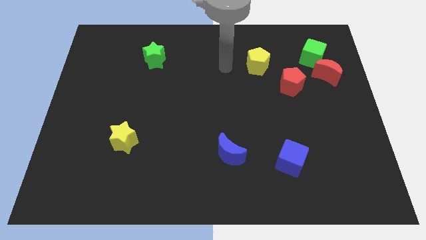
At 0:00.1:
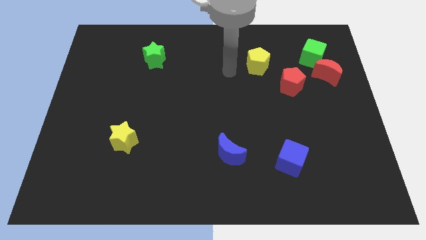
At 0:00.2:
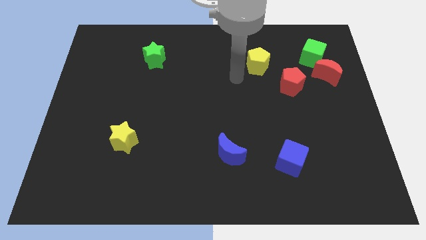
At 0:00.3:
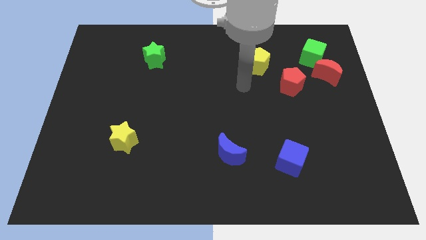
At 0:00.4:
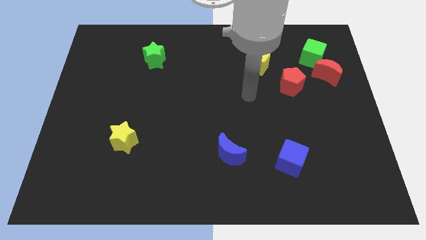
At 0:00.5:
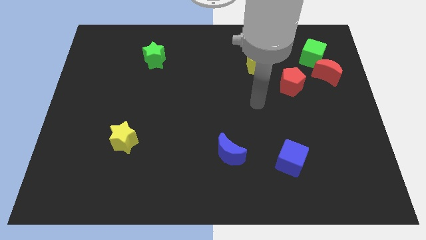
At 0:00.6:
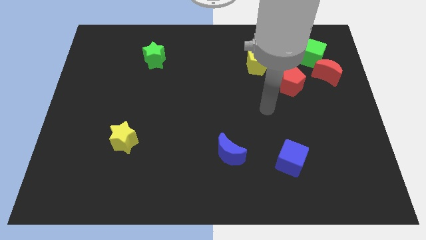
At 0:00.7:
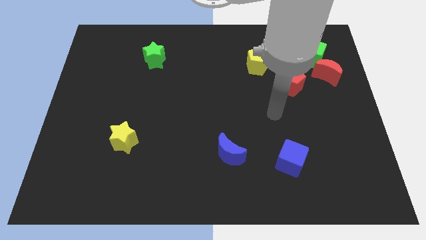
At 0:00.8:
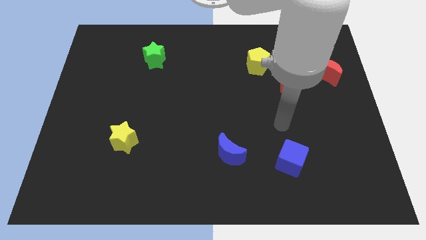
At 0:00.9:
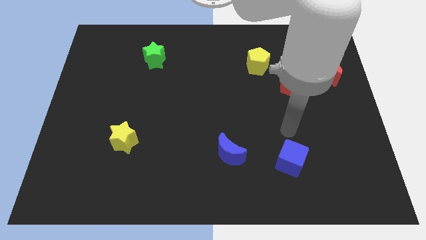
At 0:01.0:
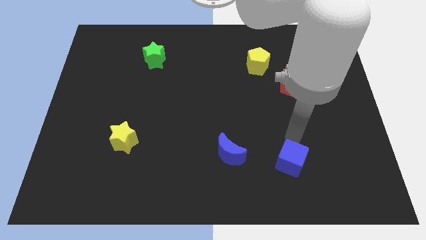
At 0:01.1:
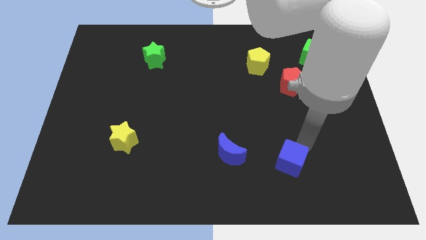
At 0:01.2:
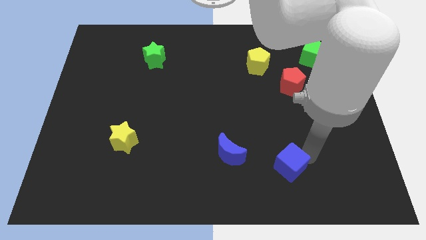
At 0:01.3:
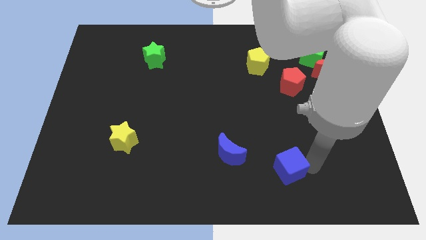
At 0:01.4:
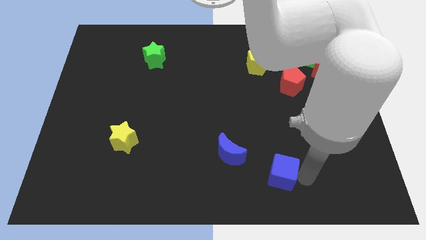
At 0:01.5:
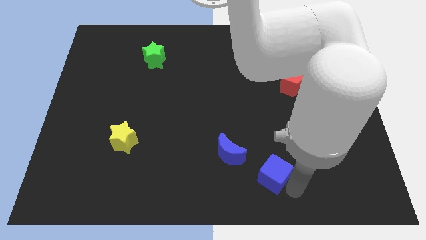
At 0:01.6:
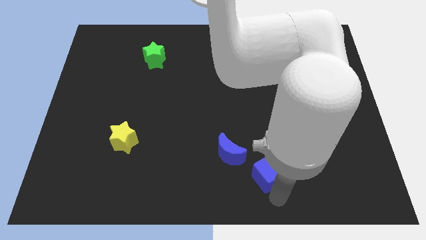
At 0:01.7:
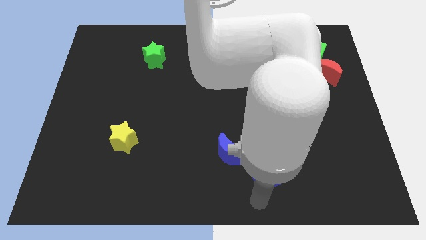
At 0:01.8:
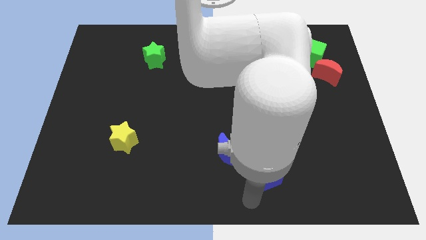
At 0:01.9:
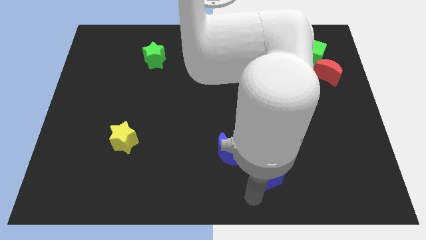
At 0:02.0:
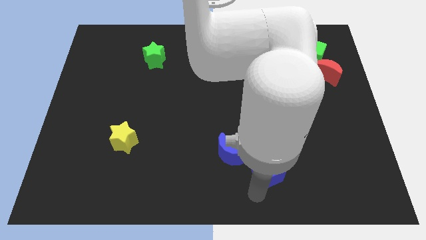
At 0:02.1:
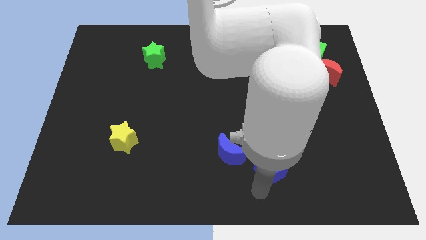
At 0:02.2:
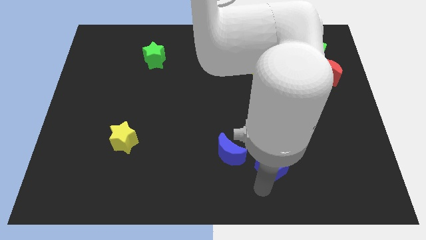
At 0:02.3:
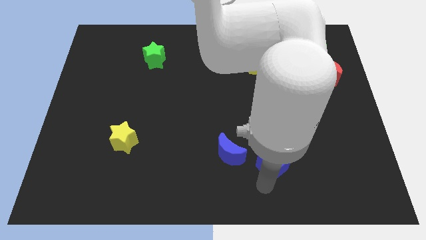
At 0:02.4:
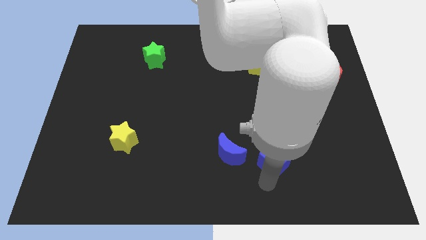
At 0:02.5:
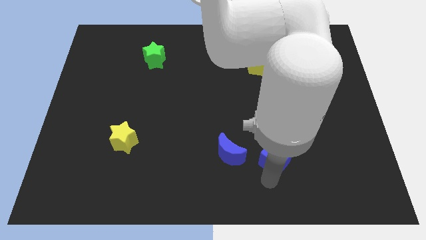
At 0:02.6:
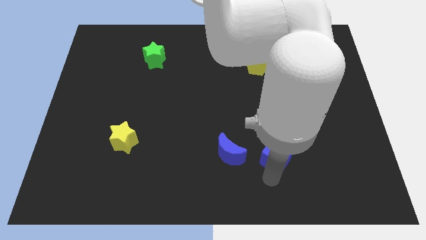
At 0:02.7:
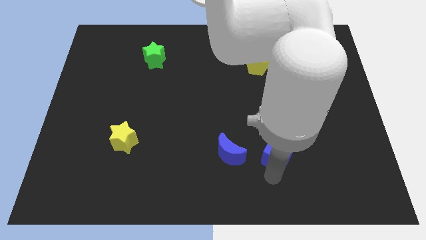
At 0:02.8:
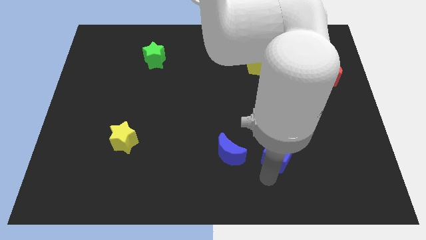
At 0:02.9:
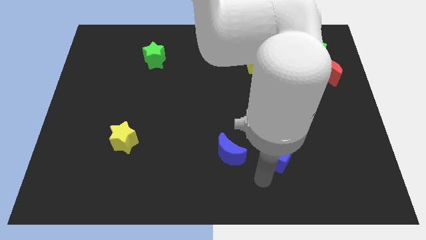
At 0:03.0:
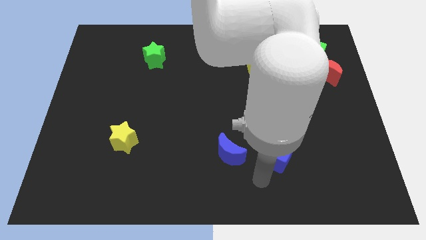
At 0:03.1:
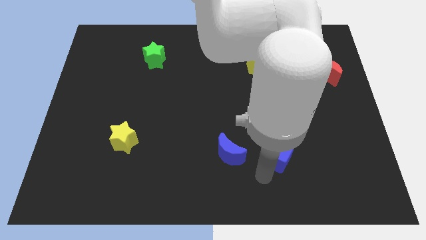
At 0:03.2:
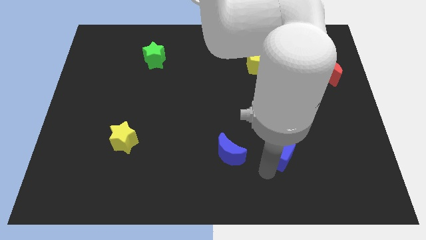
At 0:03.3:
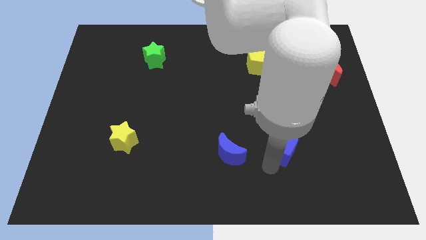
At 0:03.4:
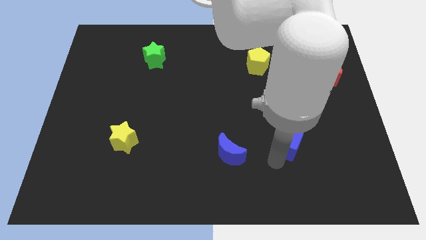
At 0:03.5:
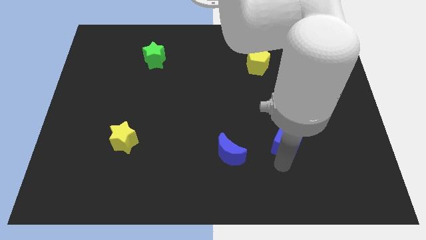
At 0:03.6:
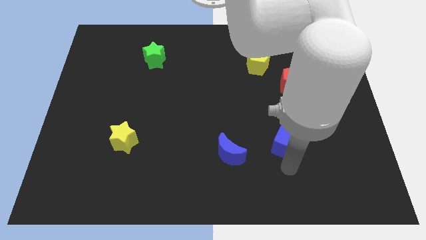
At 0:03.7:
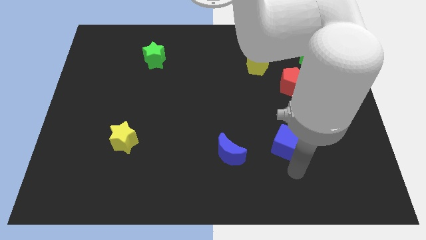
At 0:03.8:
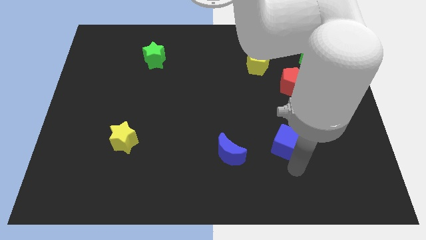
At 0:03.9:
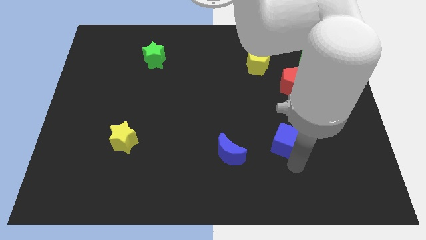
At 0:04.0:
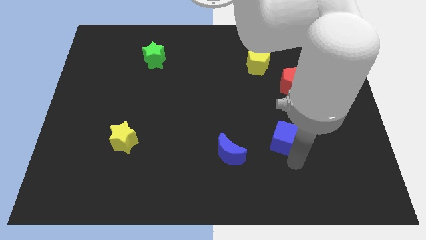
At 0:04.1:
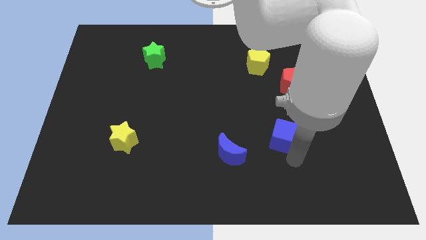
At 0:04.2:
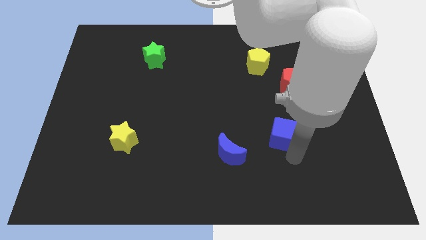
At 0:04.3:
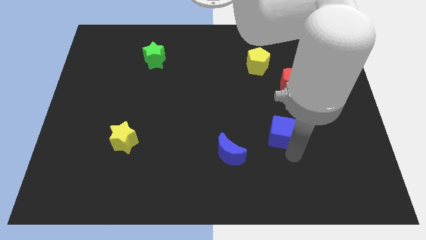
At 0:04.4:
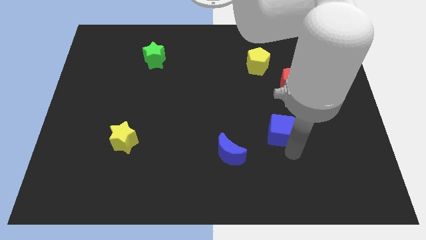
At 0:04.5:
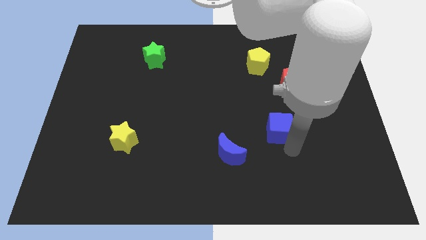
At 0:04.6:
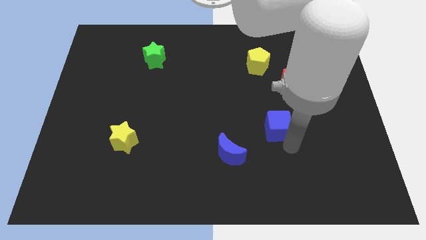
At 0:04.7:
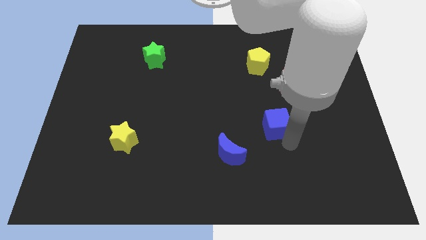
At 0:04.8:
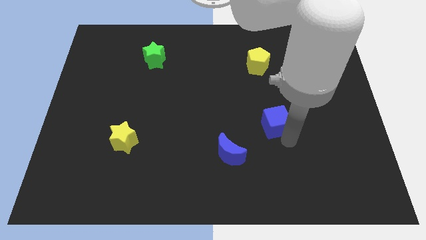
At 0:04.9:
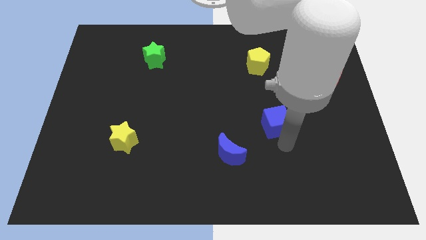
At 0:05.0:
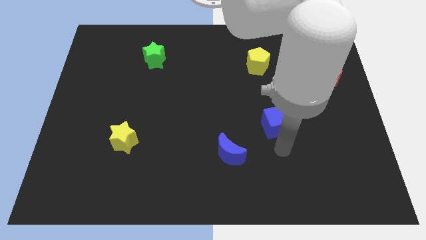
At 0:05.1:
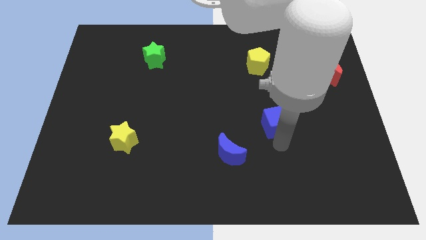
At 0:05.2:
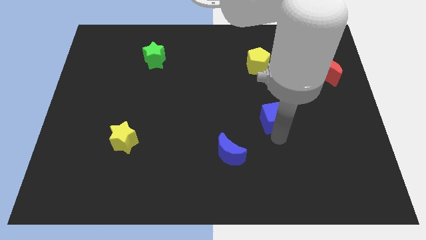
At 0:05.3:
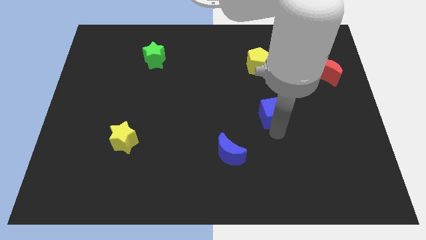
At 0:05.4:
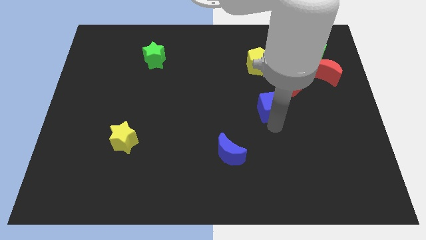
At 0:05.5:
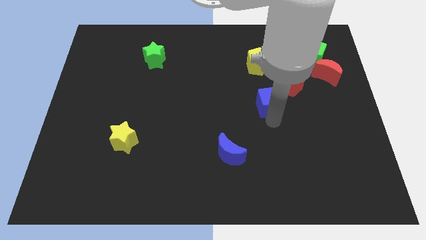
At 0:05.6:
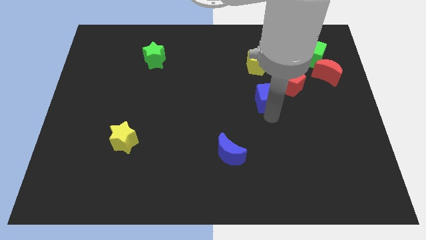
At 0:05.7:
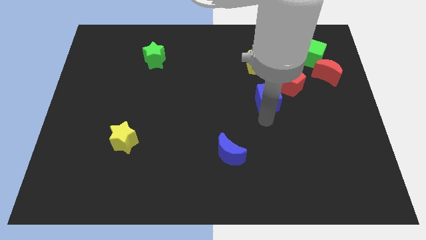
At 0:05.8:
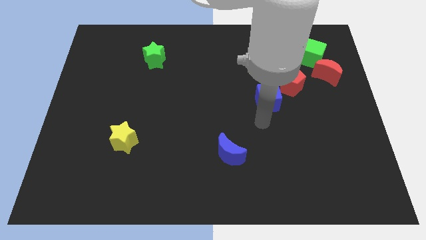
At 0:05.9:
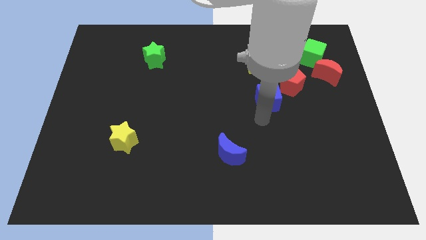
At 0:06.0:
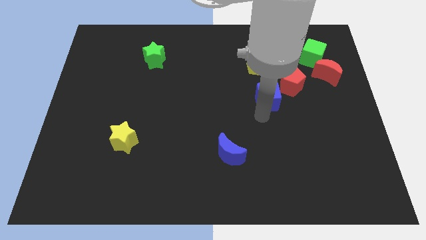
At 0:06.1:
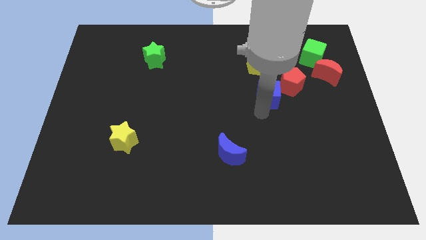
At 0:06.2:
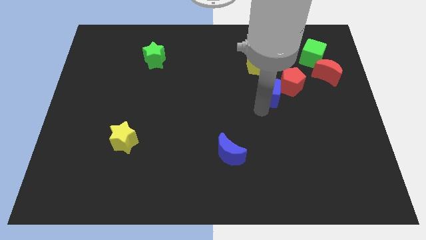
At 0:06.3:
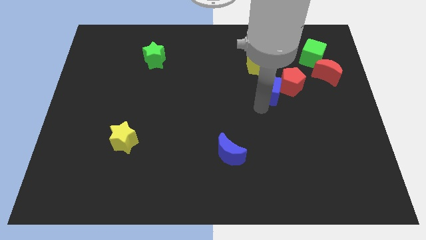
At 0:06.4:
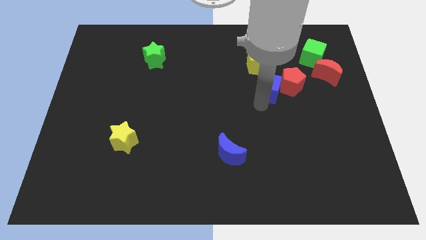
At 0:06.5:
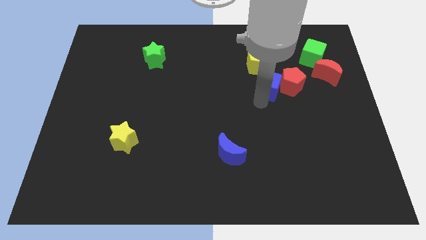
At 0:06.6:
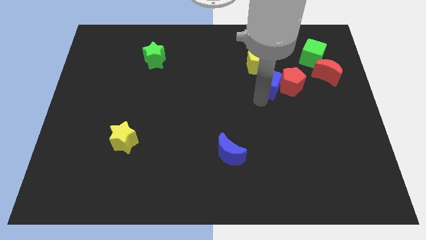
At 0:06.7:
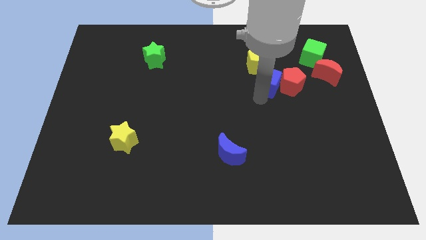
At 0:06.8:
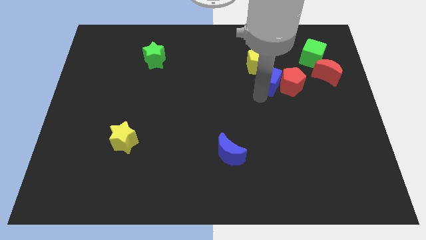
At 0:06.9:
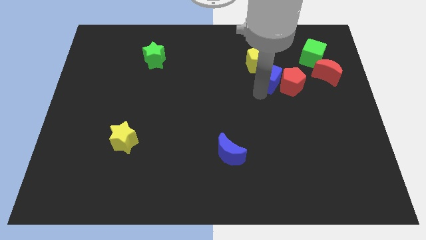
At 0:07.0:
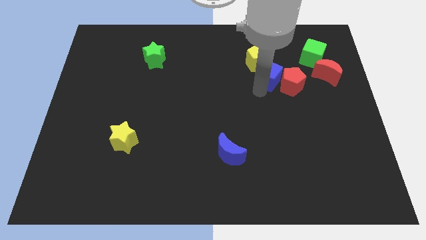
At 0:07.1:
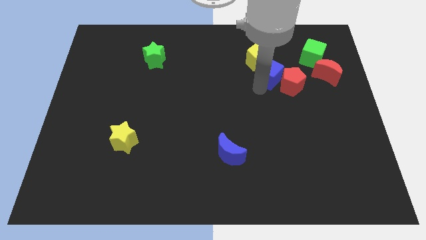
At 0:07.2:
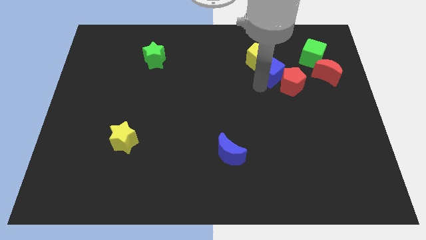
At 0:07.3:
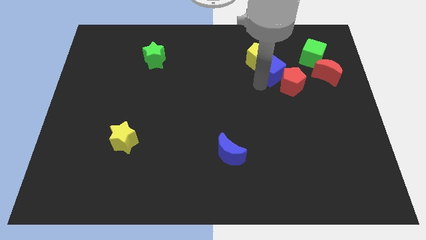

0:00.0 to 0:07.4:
push the blue cube to the top side of the red pentagon

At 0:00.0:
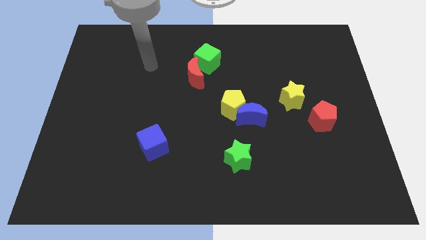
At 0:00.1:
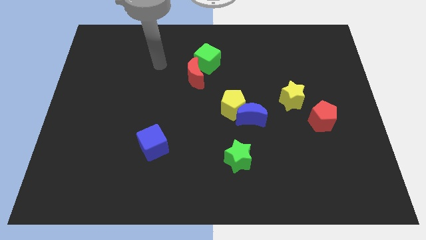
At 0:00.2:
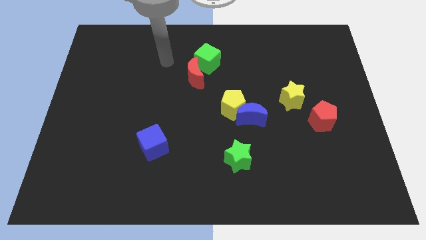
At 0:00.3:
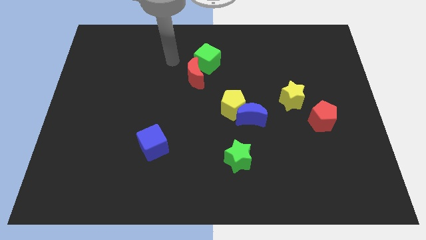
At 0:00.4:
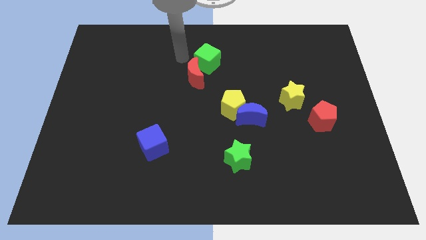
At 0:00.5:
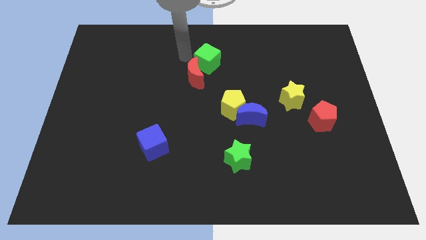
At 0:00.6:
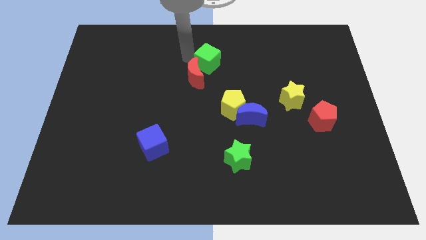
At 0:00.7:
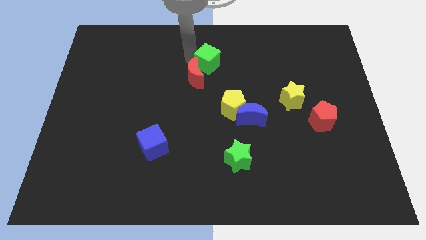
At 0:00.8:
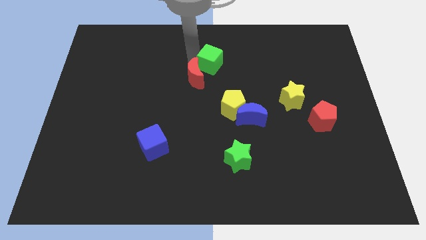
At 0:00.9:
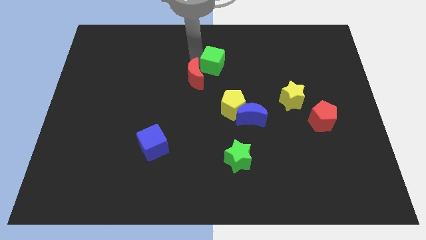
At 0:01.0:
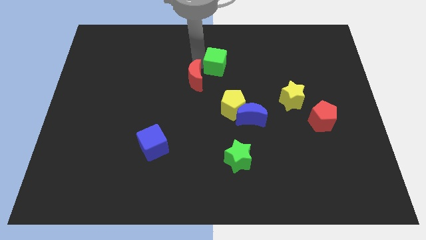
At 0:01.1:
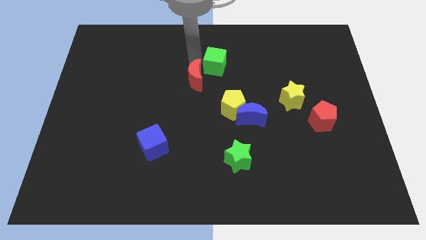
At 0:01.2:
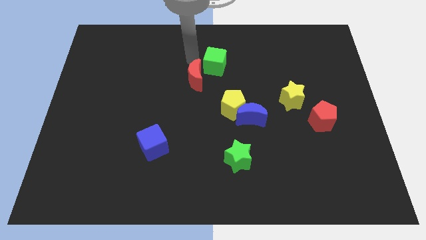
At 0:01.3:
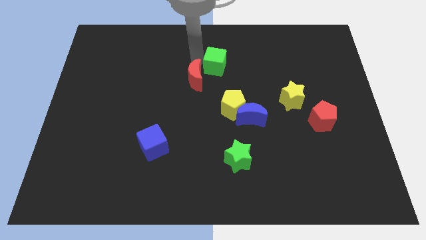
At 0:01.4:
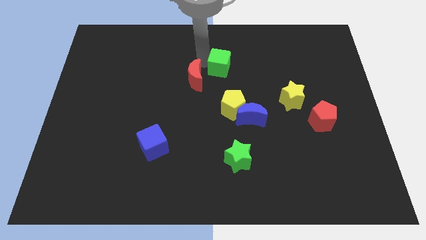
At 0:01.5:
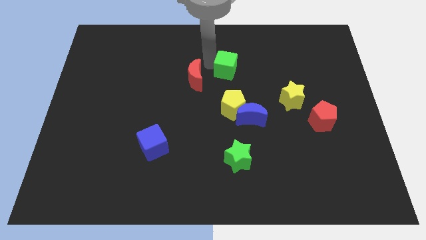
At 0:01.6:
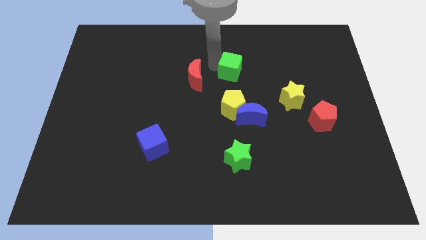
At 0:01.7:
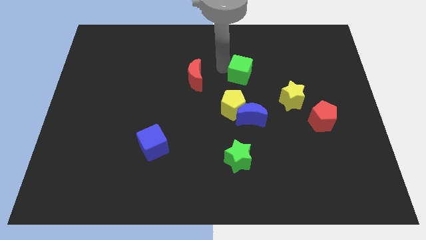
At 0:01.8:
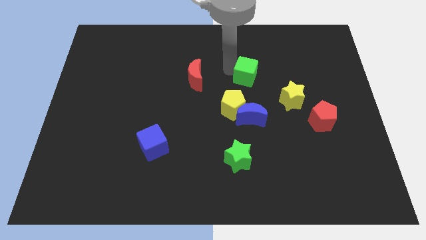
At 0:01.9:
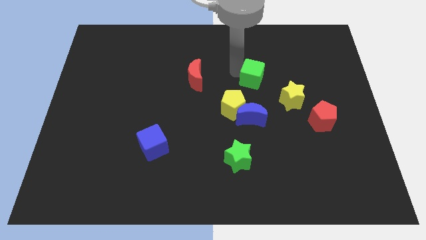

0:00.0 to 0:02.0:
put the green cube to the top left of the yellow star
